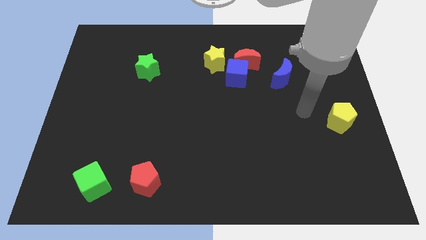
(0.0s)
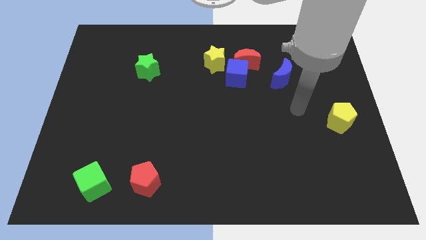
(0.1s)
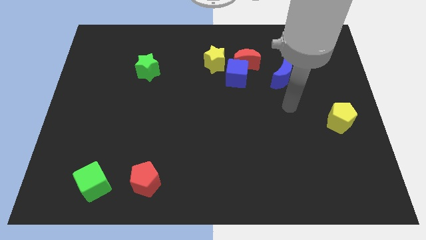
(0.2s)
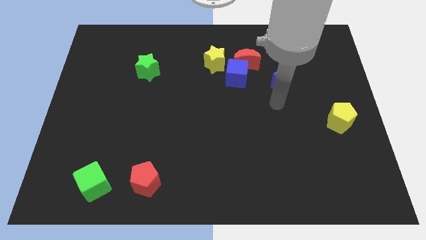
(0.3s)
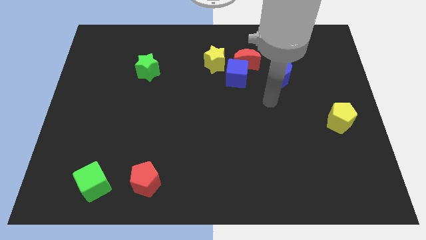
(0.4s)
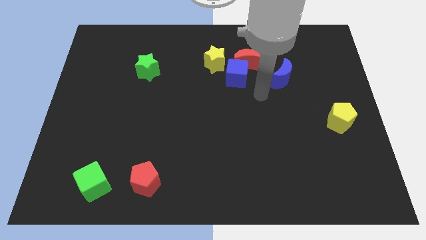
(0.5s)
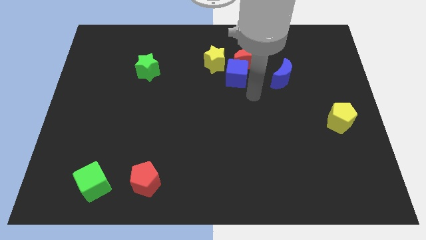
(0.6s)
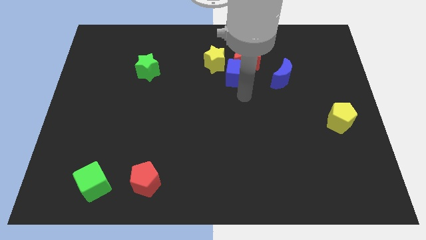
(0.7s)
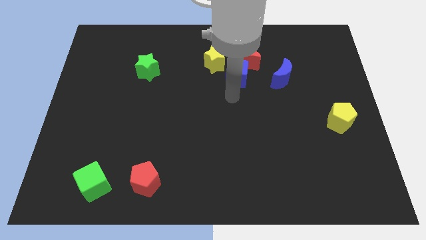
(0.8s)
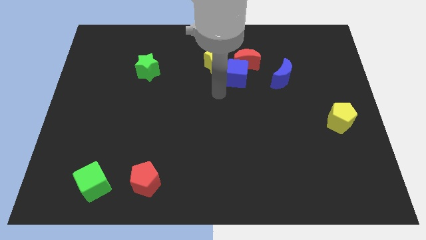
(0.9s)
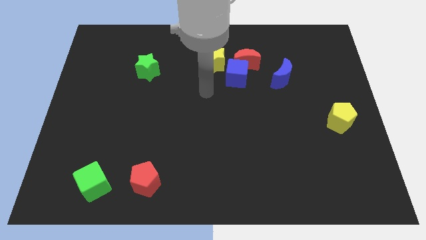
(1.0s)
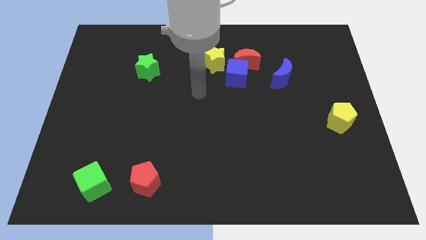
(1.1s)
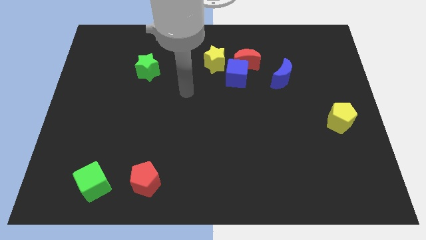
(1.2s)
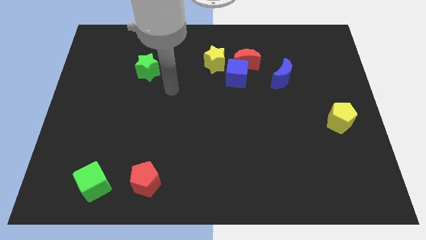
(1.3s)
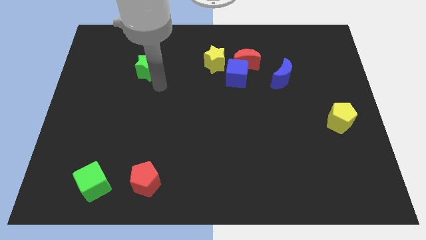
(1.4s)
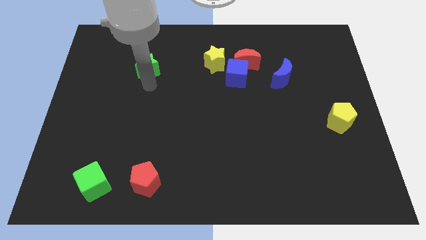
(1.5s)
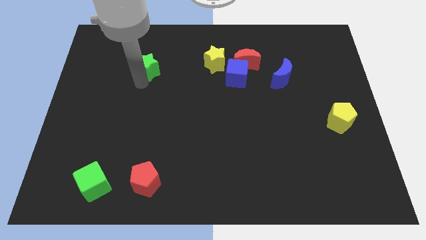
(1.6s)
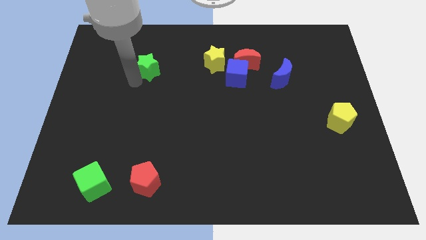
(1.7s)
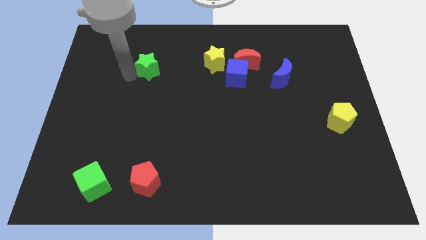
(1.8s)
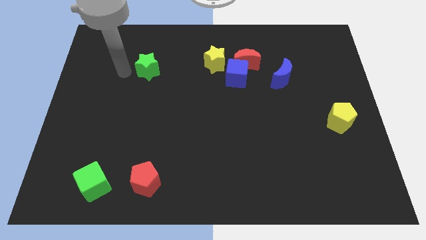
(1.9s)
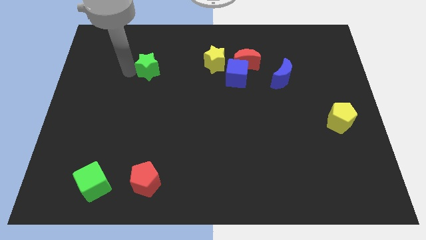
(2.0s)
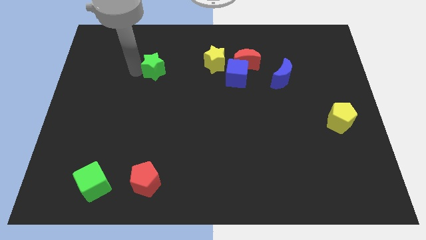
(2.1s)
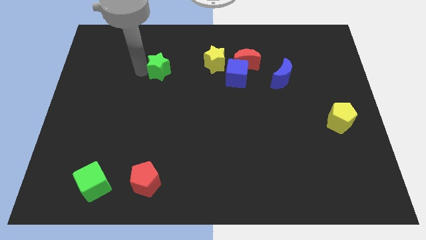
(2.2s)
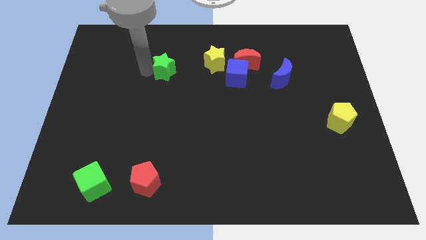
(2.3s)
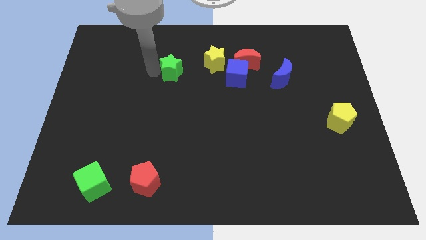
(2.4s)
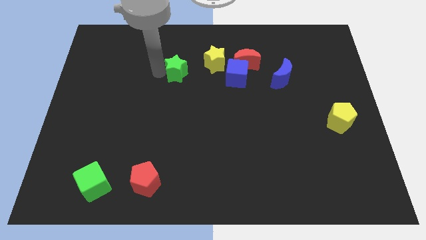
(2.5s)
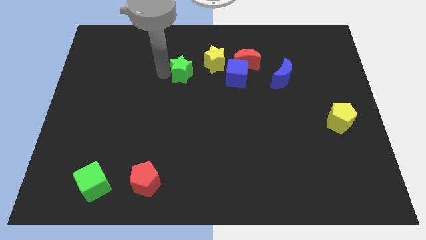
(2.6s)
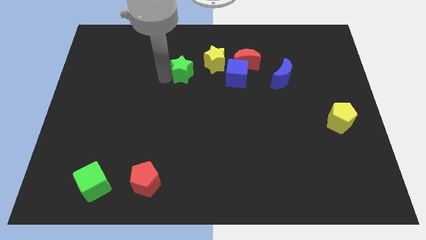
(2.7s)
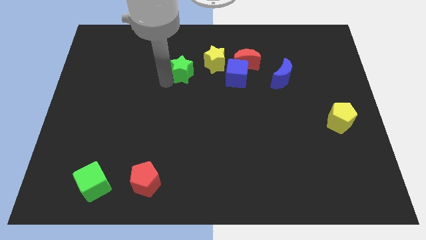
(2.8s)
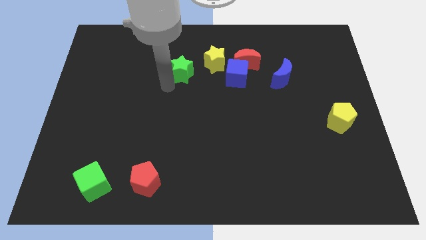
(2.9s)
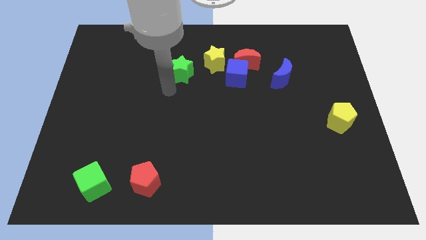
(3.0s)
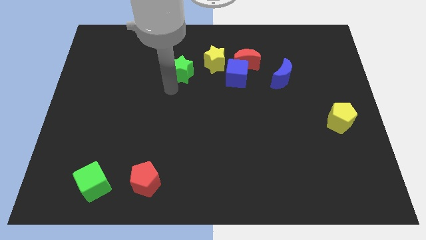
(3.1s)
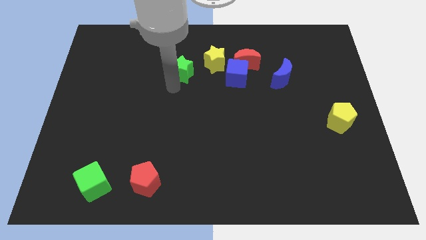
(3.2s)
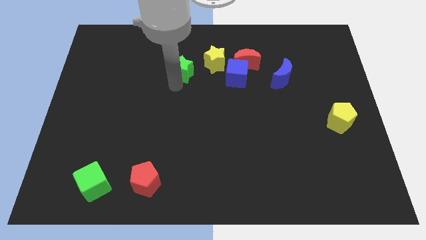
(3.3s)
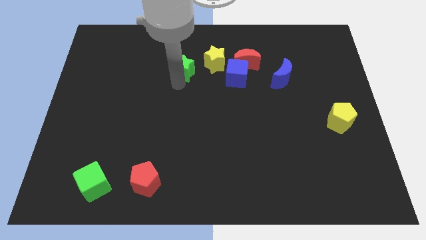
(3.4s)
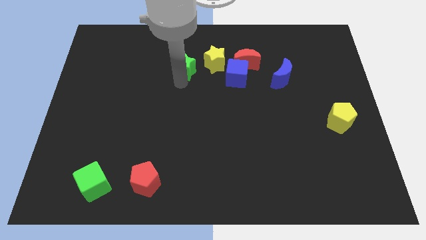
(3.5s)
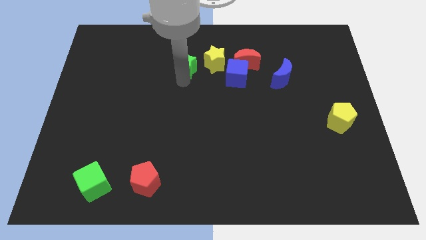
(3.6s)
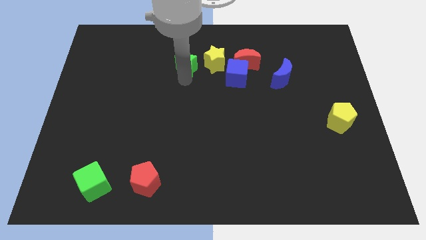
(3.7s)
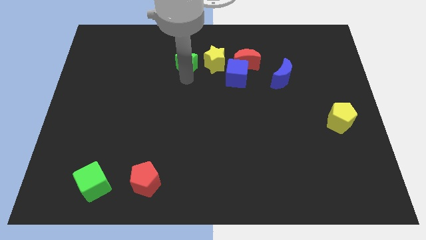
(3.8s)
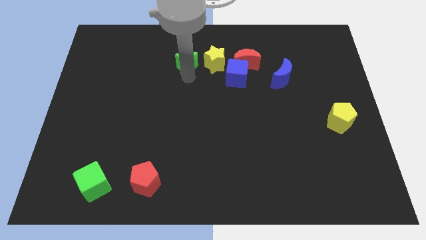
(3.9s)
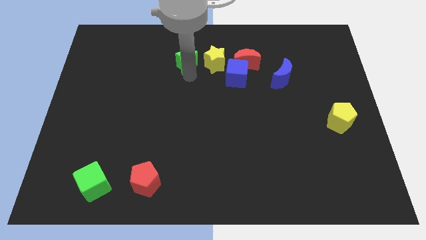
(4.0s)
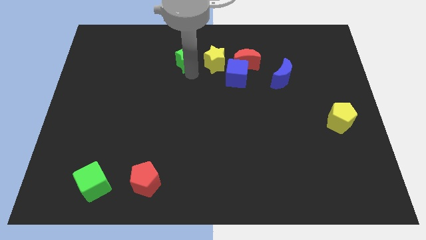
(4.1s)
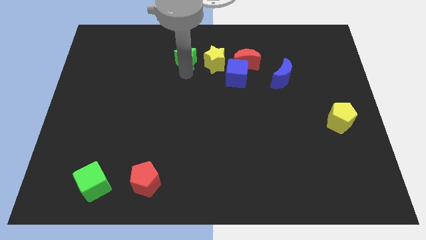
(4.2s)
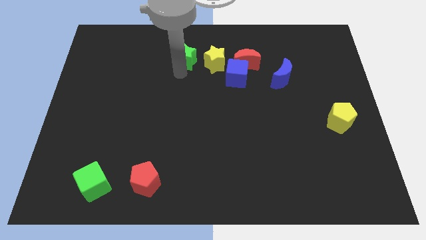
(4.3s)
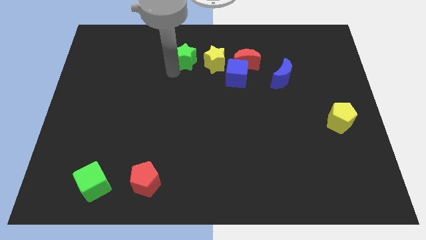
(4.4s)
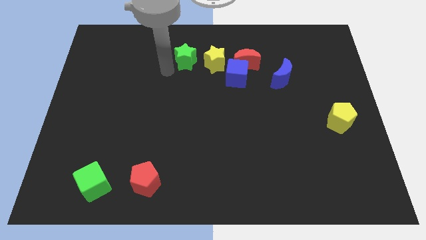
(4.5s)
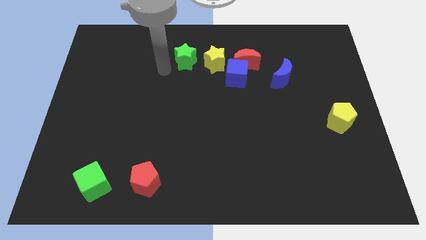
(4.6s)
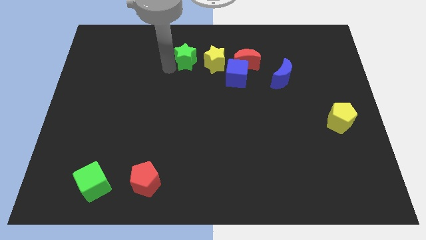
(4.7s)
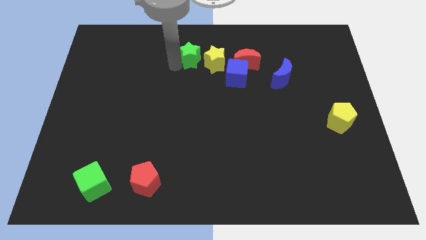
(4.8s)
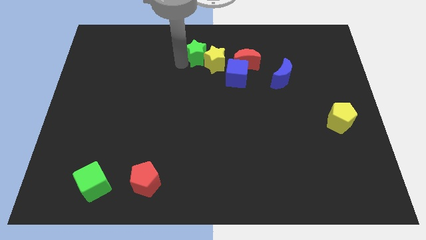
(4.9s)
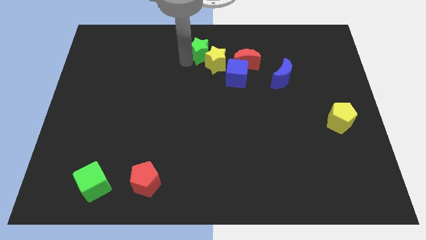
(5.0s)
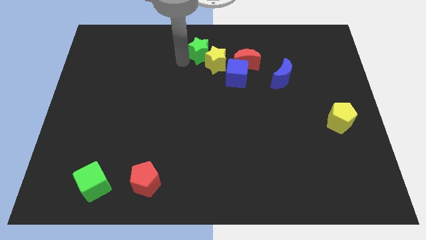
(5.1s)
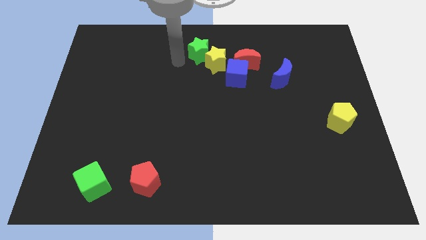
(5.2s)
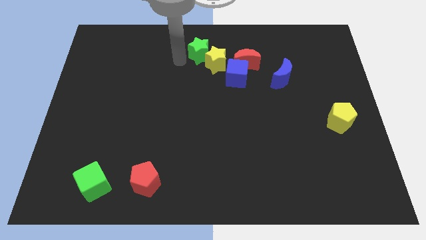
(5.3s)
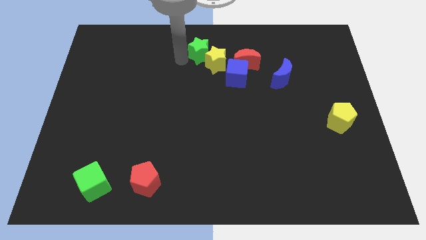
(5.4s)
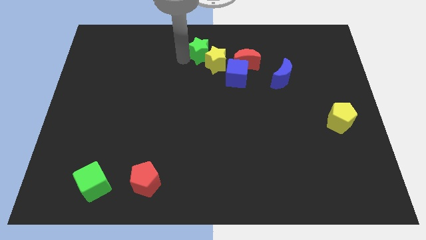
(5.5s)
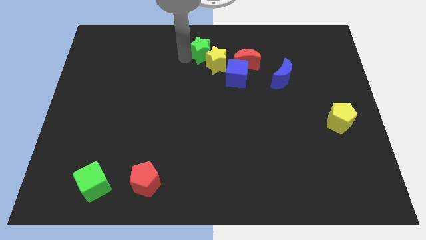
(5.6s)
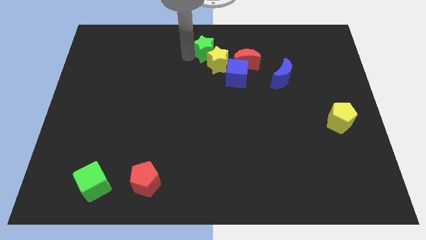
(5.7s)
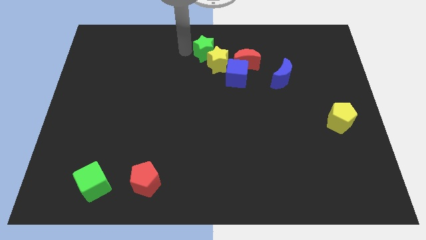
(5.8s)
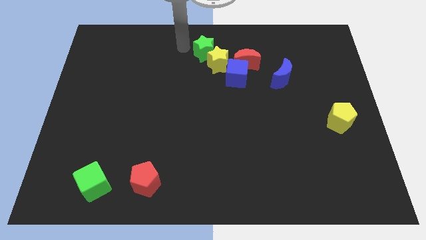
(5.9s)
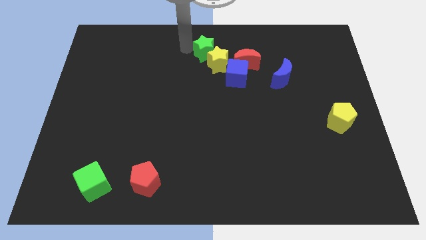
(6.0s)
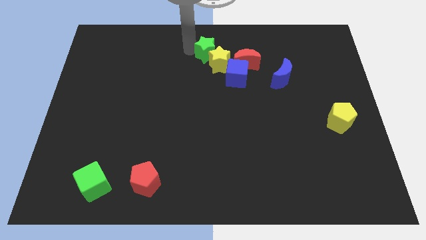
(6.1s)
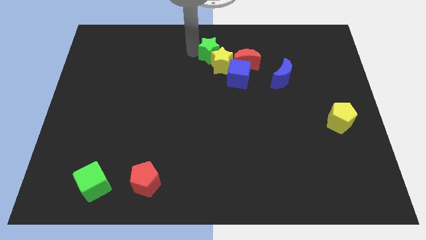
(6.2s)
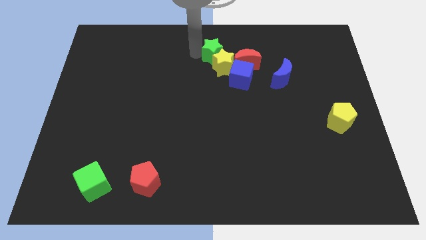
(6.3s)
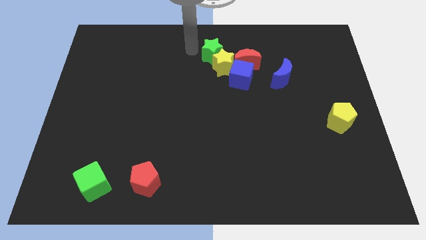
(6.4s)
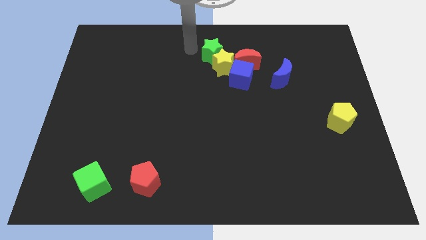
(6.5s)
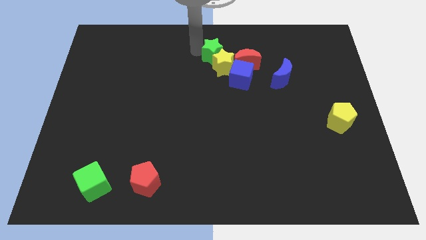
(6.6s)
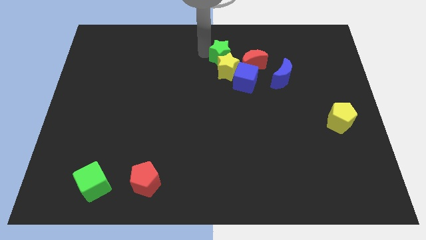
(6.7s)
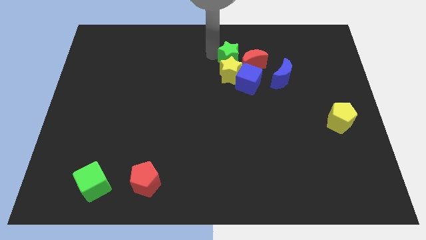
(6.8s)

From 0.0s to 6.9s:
slide the green star towards the red moon

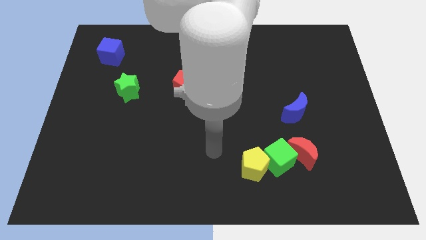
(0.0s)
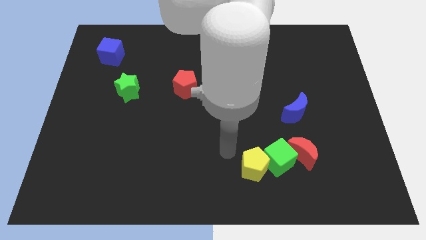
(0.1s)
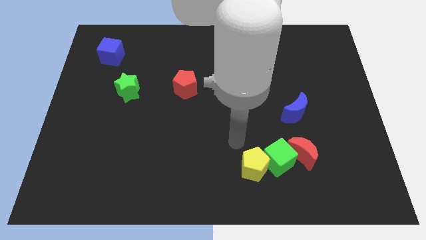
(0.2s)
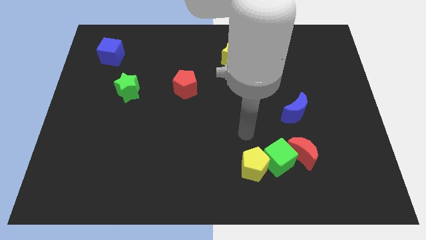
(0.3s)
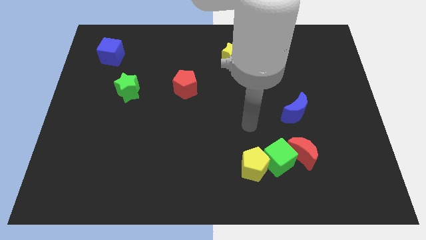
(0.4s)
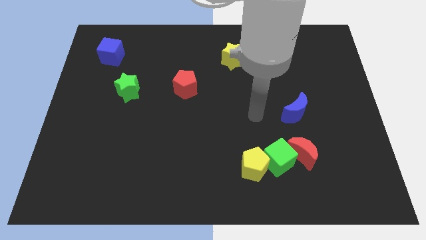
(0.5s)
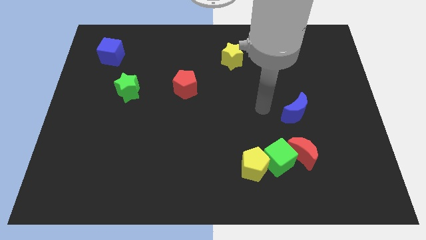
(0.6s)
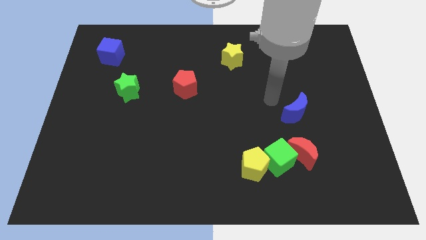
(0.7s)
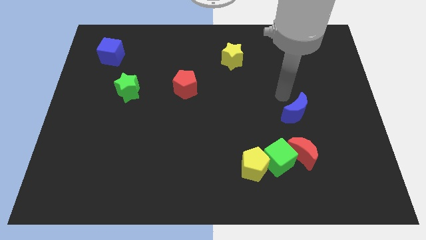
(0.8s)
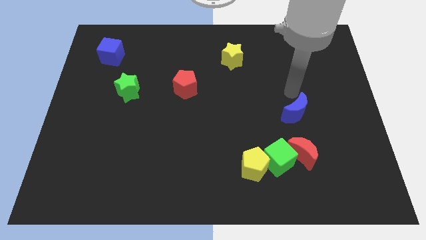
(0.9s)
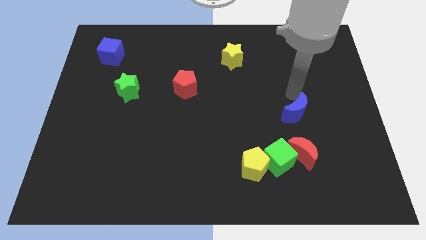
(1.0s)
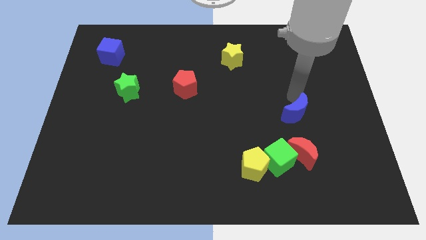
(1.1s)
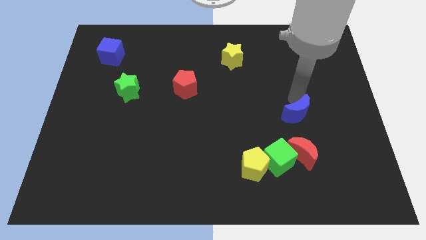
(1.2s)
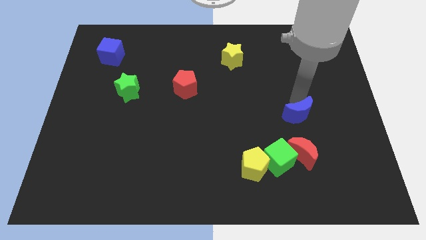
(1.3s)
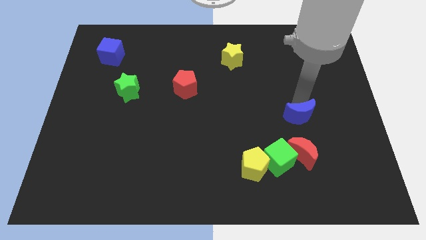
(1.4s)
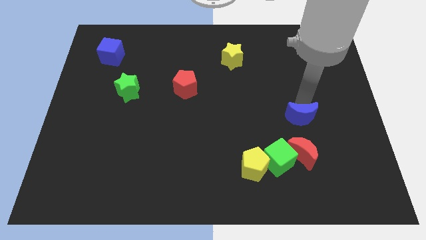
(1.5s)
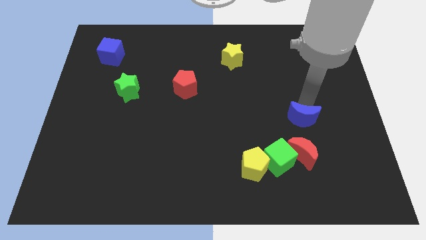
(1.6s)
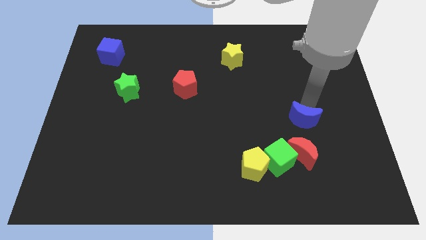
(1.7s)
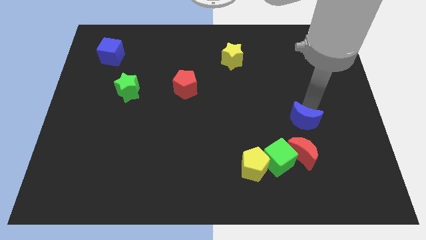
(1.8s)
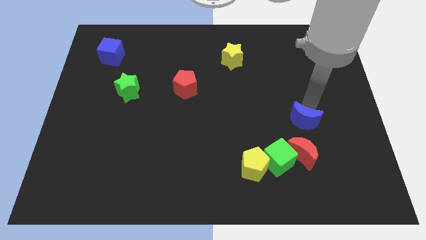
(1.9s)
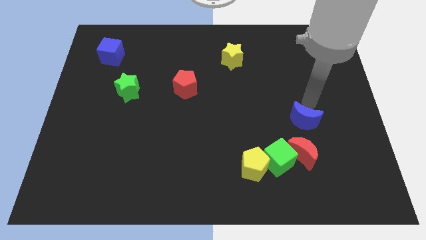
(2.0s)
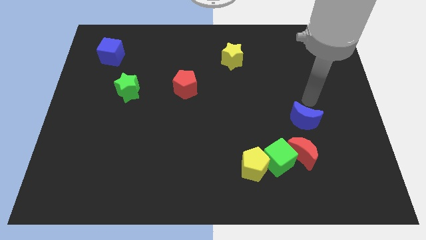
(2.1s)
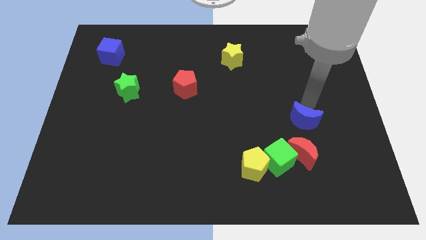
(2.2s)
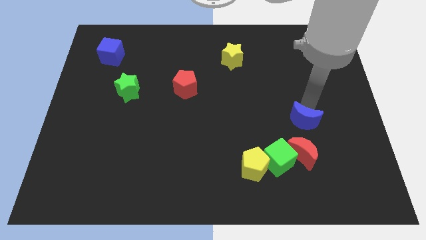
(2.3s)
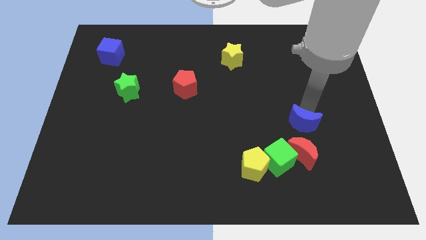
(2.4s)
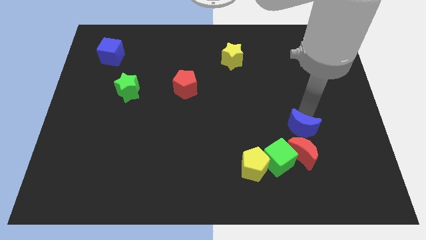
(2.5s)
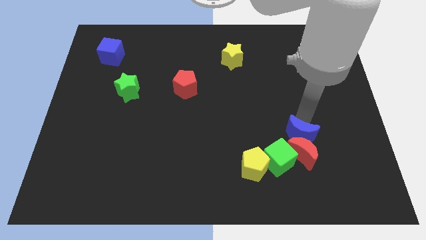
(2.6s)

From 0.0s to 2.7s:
slide the blue moon next to the red moon
